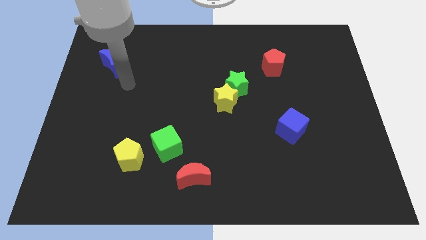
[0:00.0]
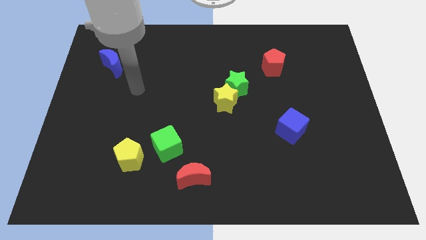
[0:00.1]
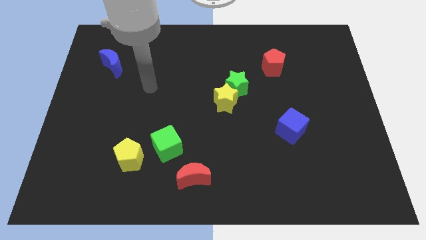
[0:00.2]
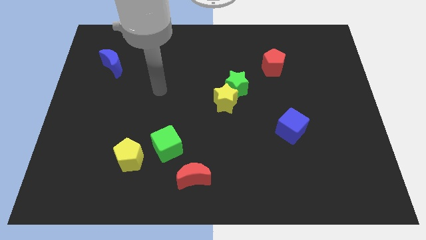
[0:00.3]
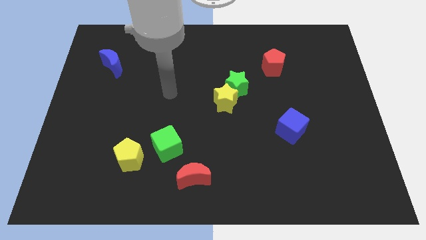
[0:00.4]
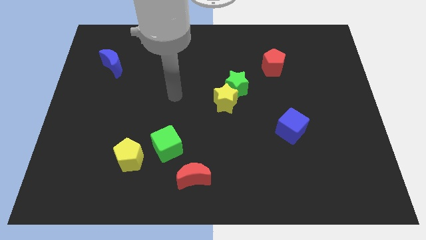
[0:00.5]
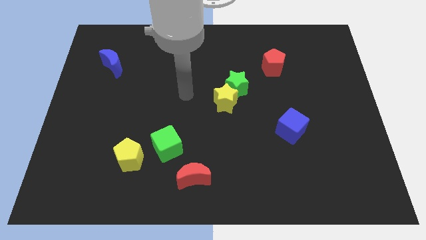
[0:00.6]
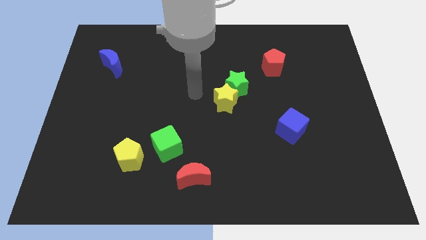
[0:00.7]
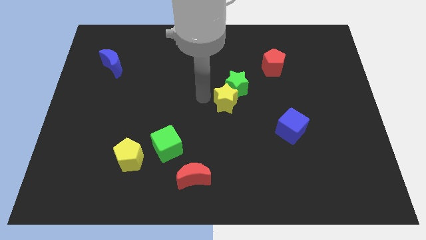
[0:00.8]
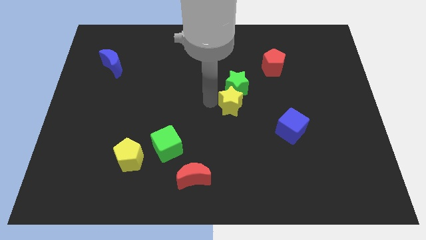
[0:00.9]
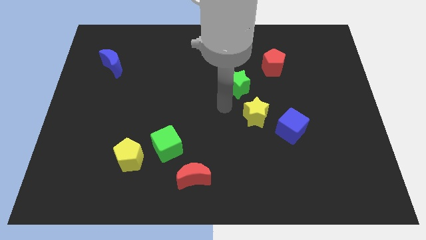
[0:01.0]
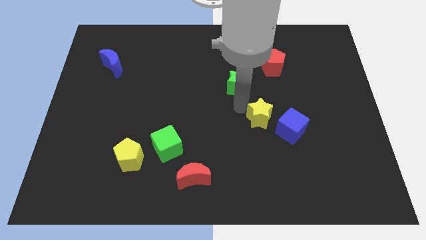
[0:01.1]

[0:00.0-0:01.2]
move the green star away from the yellow star

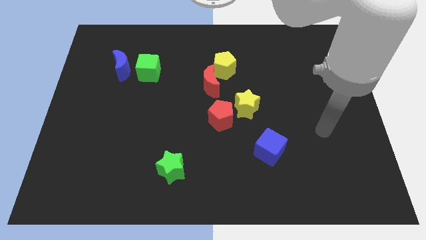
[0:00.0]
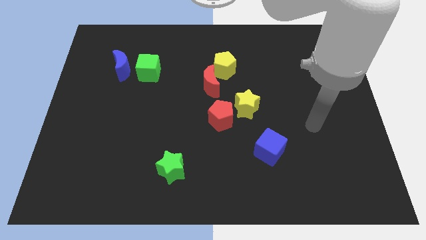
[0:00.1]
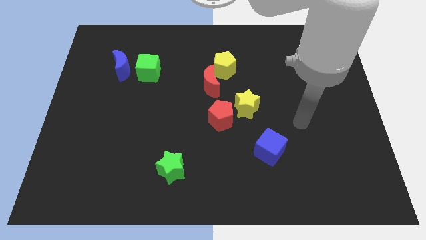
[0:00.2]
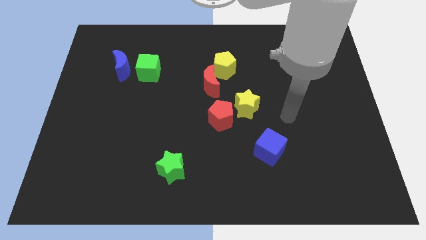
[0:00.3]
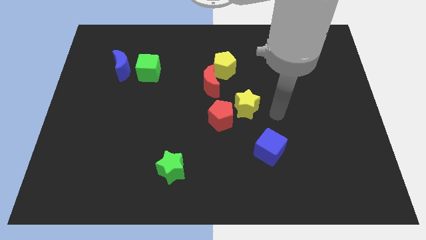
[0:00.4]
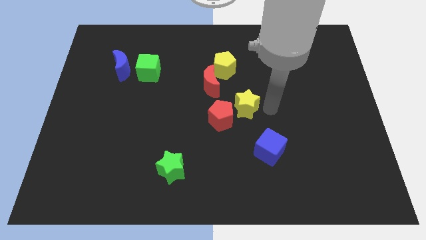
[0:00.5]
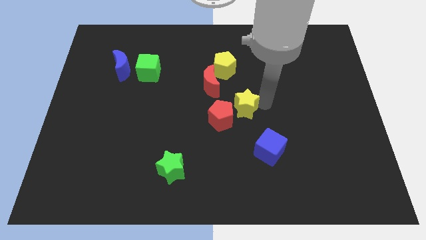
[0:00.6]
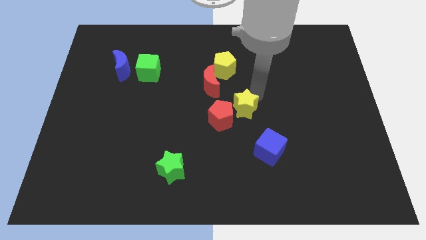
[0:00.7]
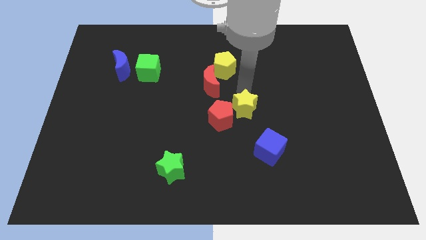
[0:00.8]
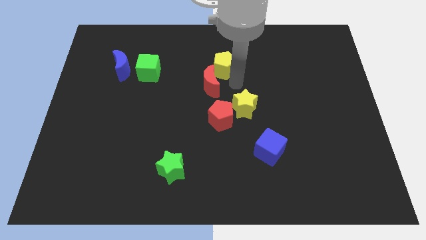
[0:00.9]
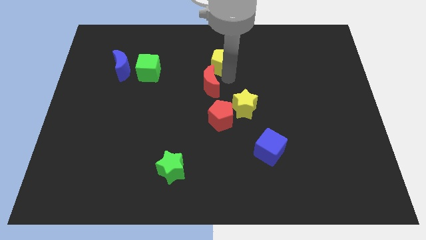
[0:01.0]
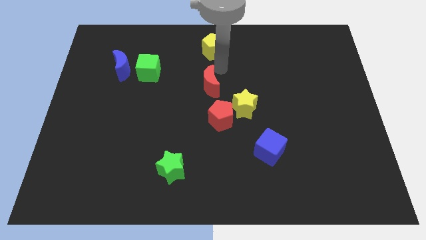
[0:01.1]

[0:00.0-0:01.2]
move the red moon away from the yellow pentagon

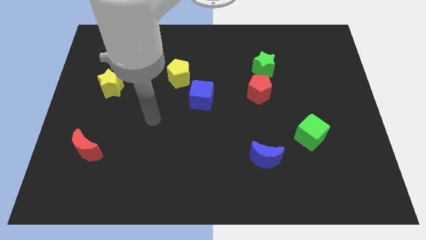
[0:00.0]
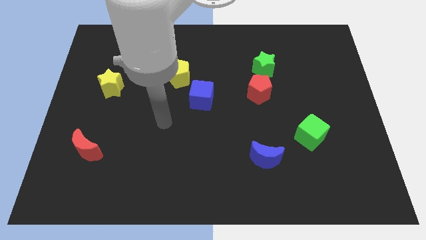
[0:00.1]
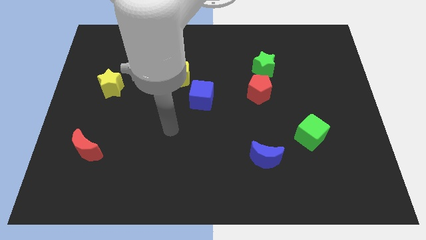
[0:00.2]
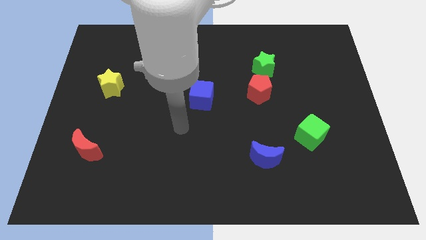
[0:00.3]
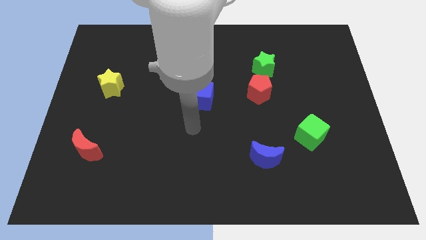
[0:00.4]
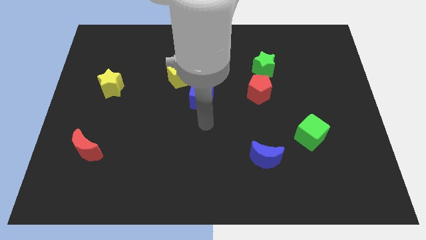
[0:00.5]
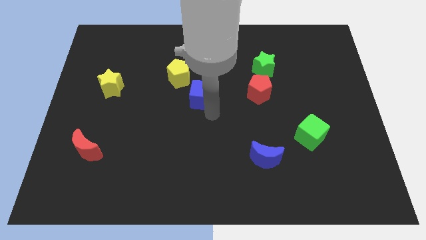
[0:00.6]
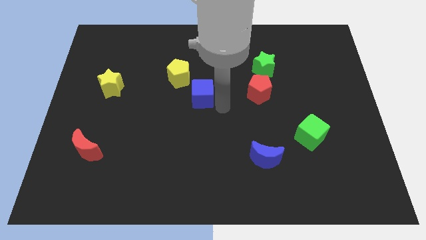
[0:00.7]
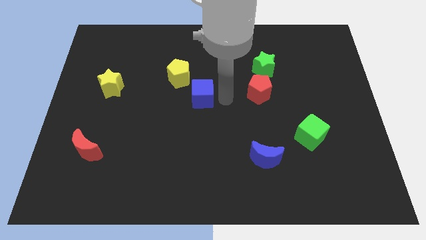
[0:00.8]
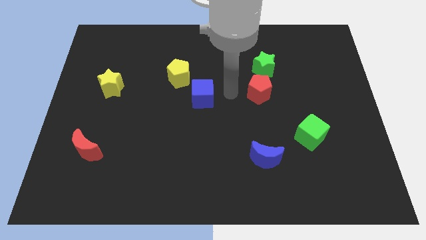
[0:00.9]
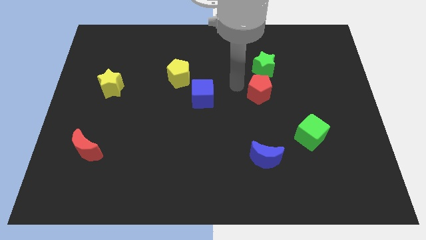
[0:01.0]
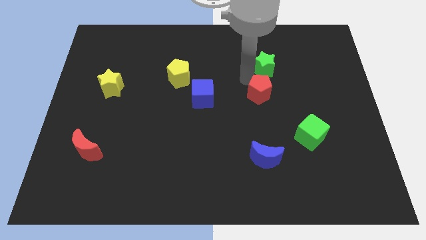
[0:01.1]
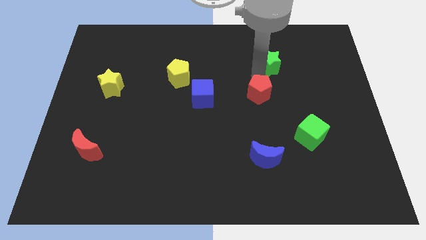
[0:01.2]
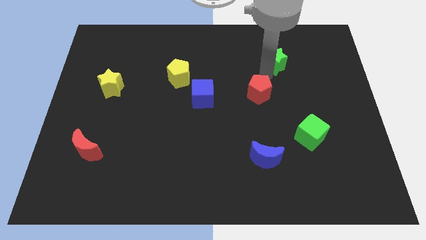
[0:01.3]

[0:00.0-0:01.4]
pull the red pentagon apart from the green star

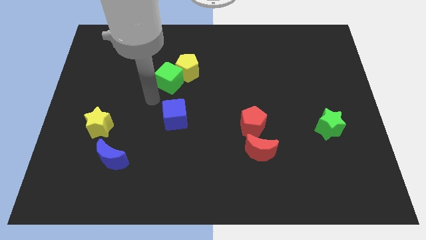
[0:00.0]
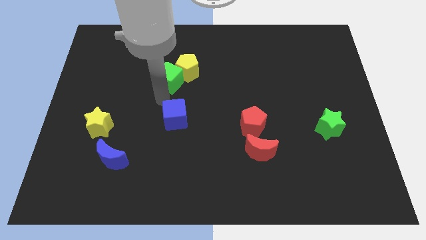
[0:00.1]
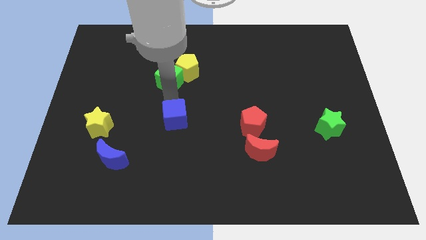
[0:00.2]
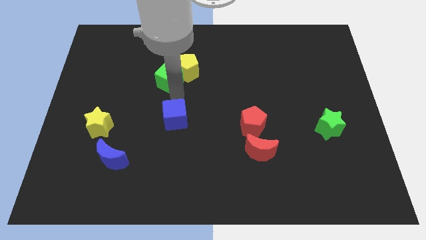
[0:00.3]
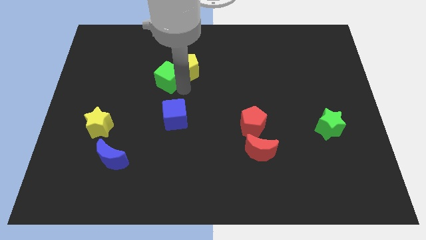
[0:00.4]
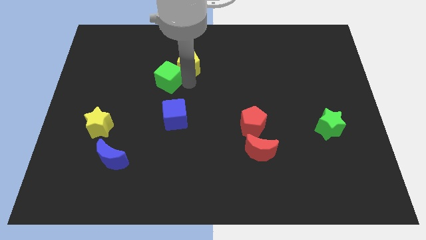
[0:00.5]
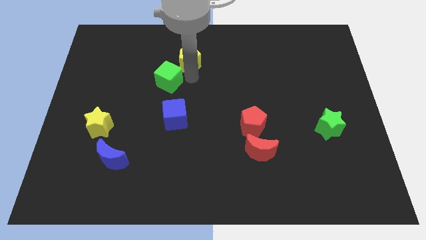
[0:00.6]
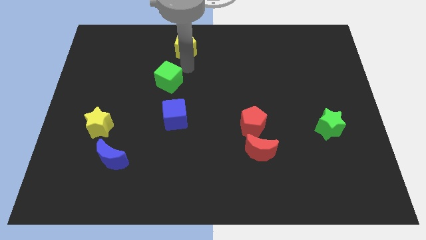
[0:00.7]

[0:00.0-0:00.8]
separate the green cube from the yellow pentagon

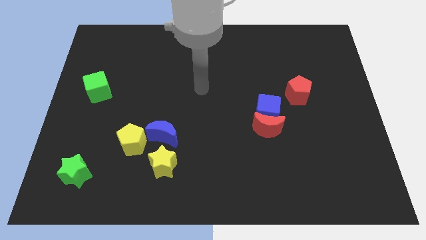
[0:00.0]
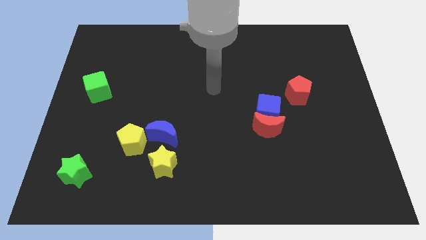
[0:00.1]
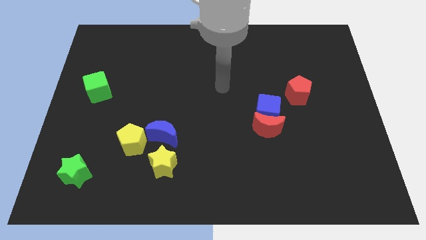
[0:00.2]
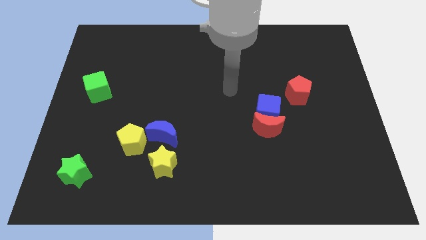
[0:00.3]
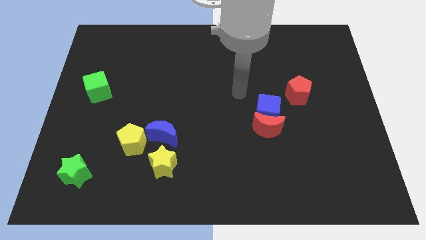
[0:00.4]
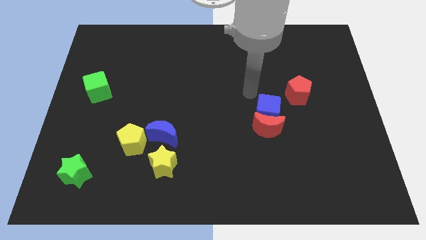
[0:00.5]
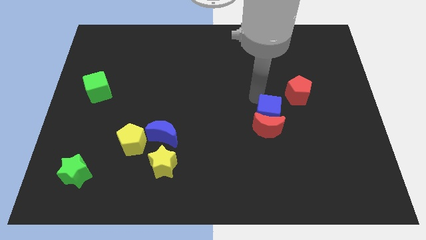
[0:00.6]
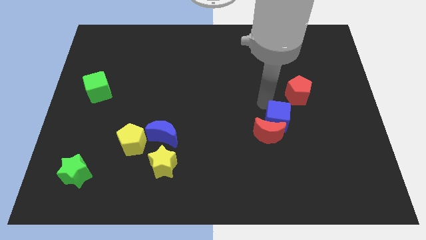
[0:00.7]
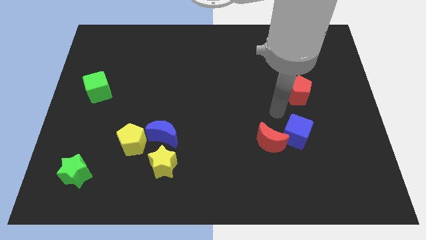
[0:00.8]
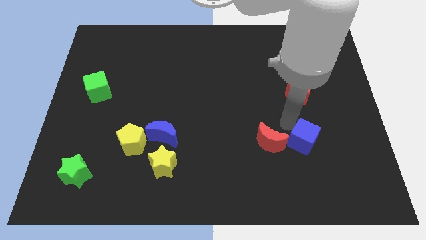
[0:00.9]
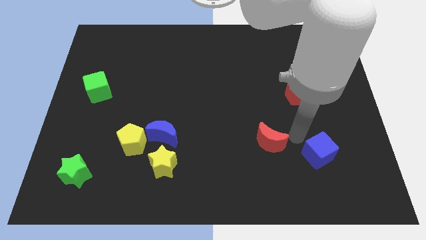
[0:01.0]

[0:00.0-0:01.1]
pull the red moon apart from the blue cube

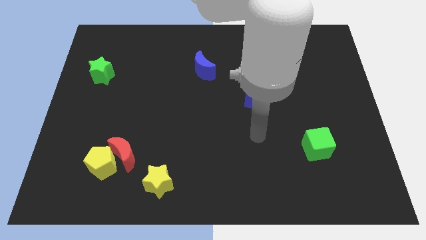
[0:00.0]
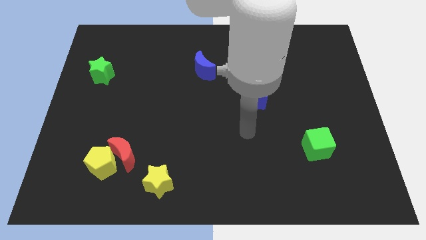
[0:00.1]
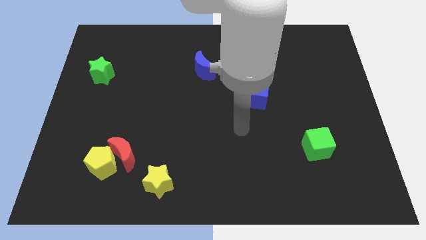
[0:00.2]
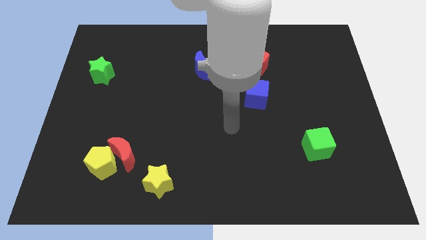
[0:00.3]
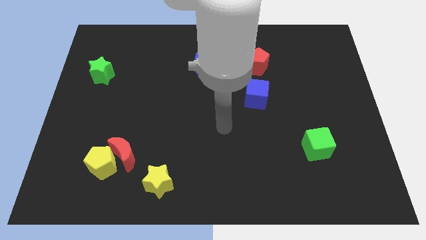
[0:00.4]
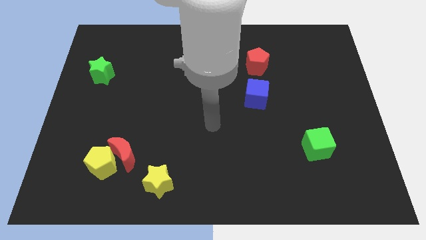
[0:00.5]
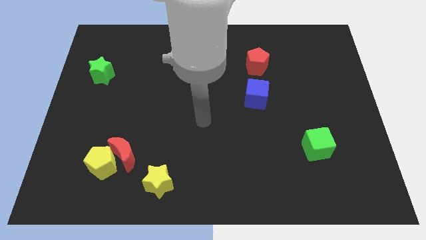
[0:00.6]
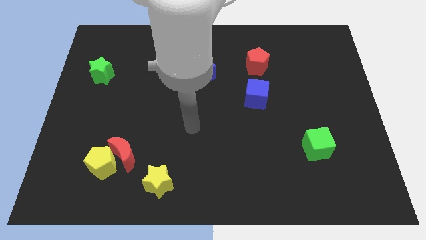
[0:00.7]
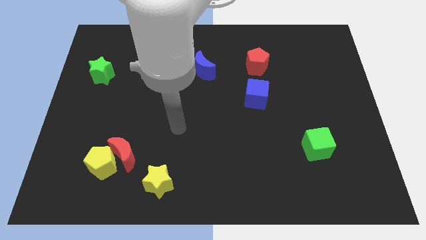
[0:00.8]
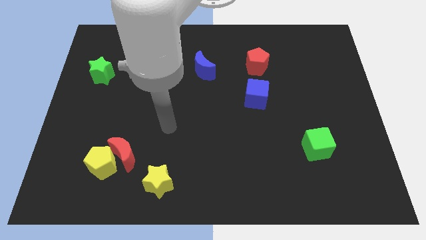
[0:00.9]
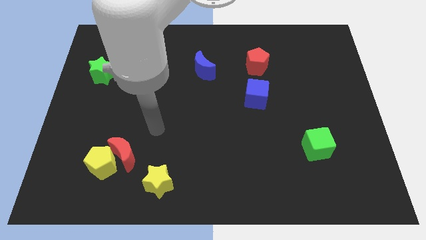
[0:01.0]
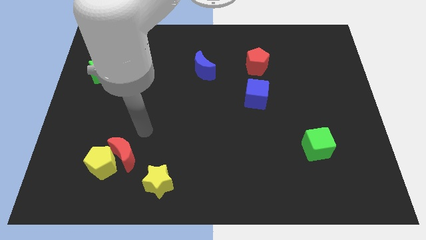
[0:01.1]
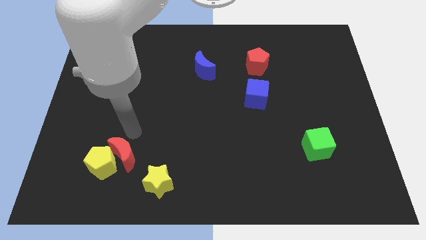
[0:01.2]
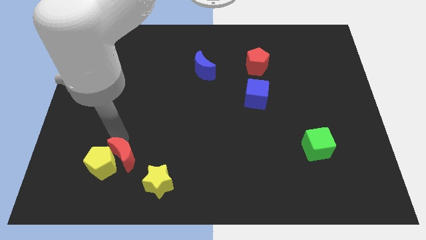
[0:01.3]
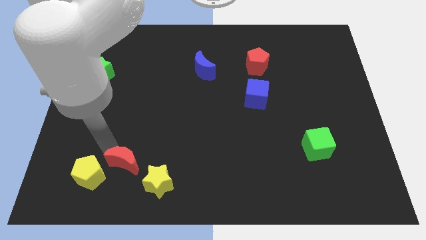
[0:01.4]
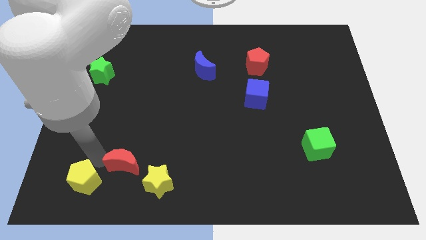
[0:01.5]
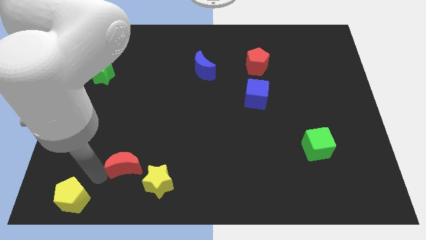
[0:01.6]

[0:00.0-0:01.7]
pull the red moon apart from the yellow pentagon

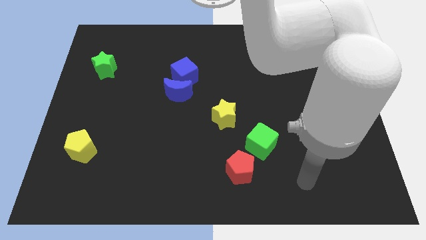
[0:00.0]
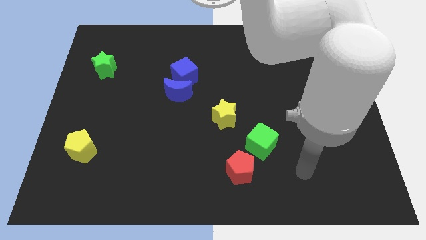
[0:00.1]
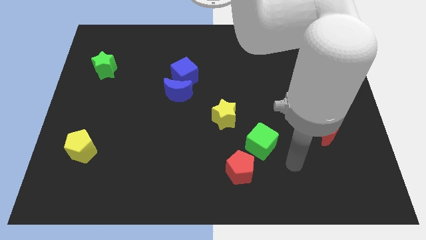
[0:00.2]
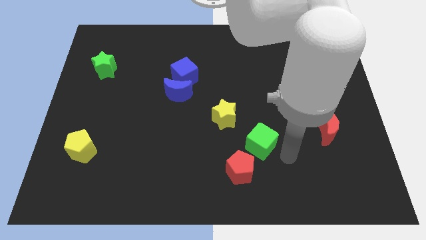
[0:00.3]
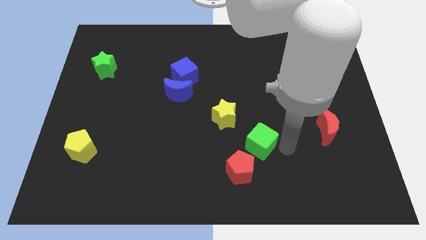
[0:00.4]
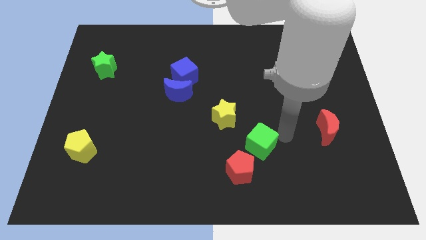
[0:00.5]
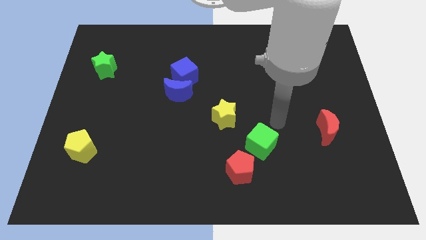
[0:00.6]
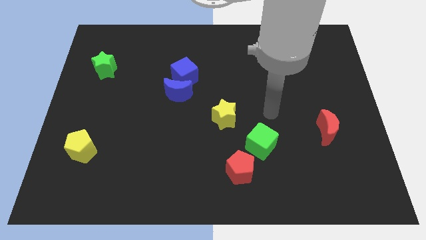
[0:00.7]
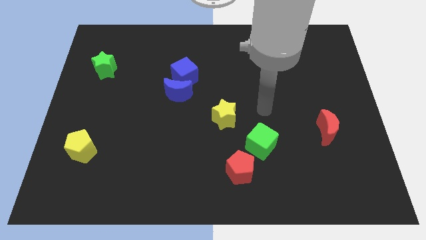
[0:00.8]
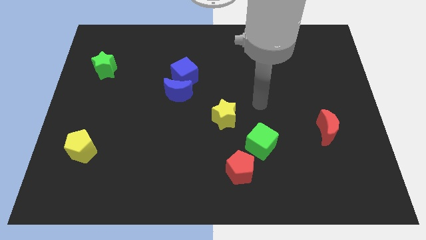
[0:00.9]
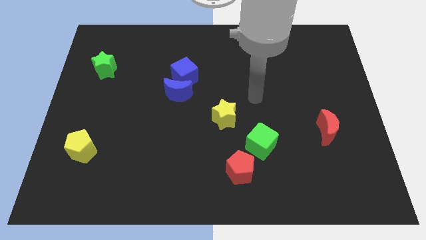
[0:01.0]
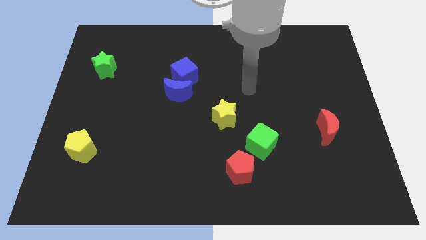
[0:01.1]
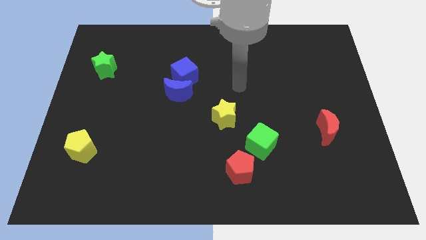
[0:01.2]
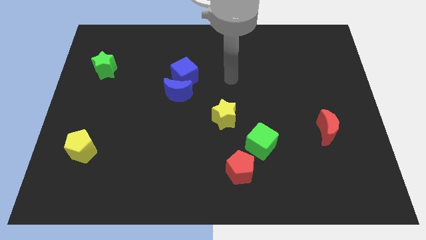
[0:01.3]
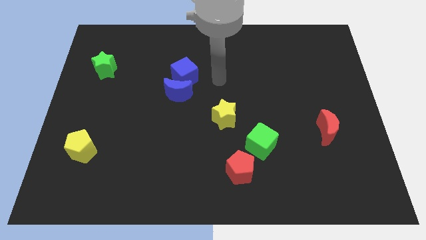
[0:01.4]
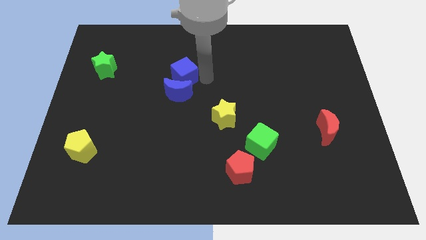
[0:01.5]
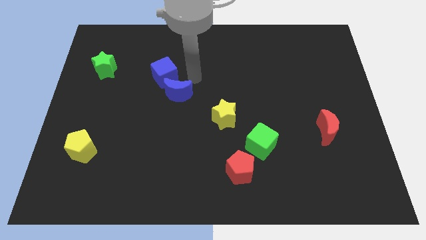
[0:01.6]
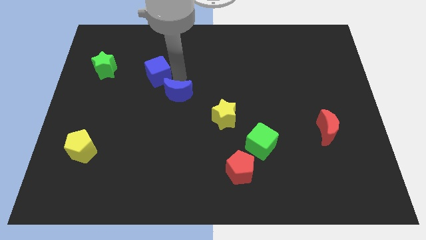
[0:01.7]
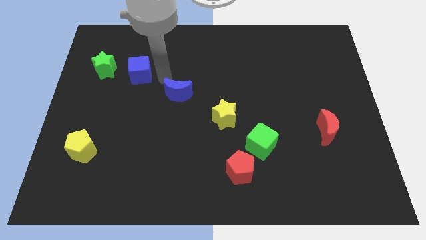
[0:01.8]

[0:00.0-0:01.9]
pull the blue moon apart from the blue cube

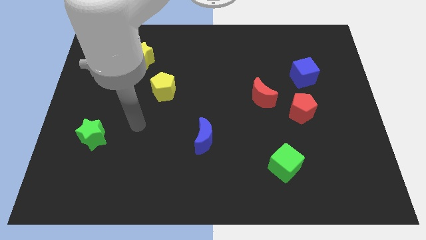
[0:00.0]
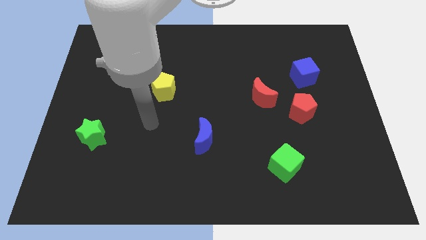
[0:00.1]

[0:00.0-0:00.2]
separate the red moon from the red pentagon
